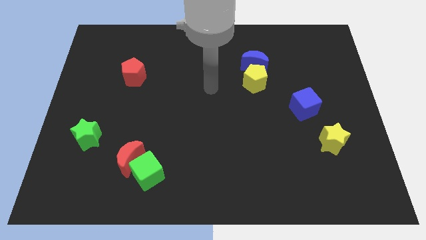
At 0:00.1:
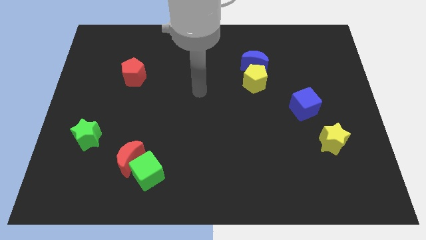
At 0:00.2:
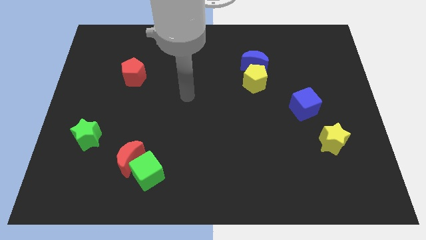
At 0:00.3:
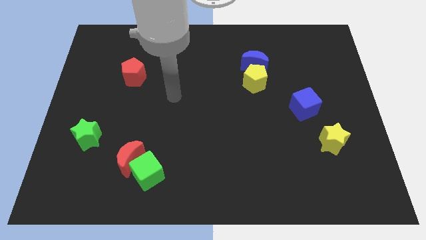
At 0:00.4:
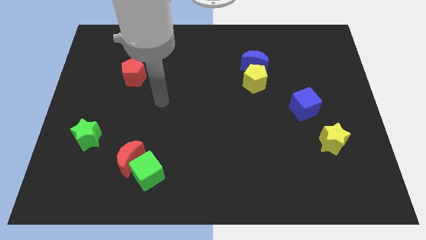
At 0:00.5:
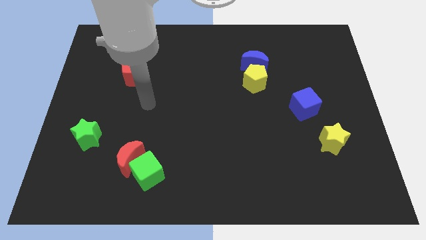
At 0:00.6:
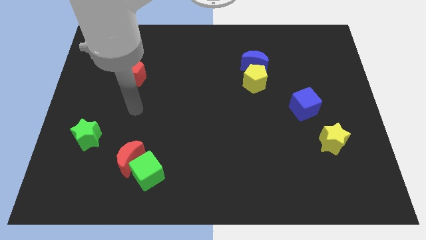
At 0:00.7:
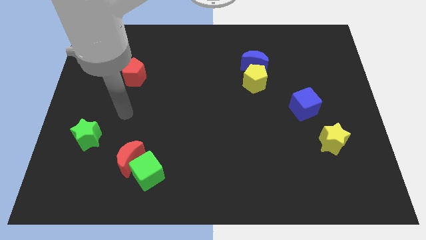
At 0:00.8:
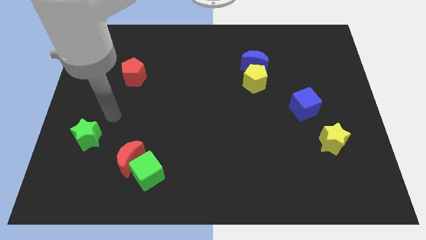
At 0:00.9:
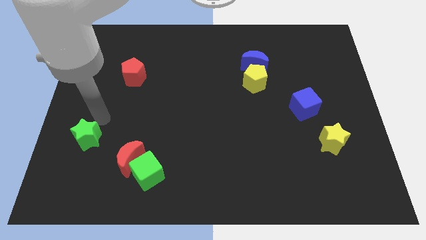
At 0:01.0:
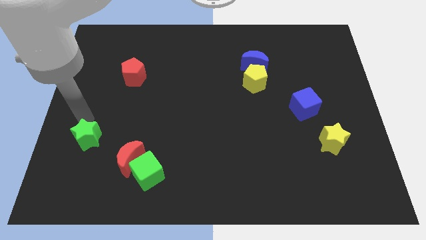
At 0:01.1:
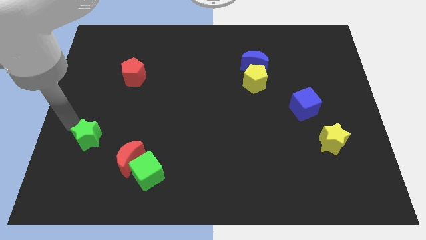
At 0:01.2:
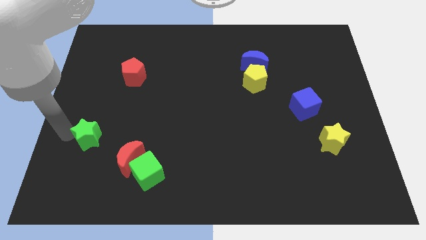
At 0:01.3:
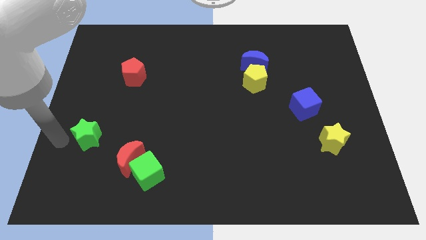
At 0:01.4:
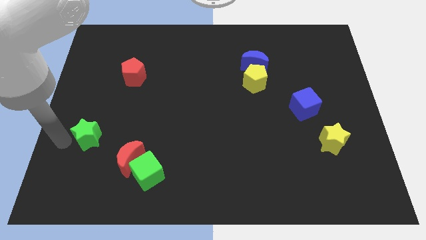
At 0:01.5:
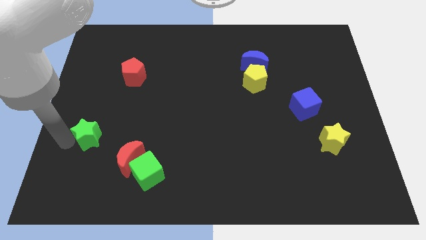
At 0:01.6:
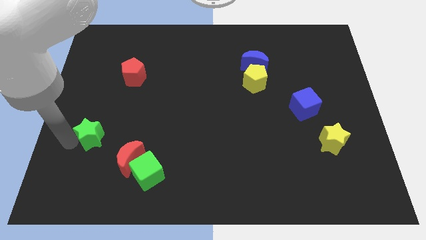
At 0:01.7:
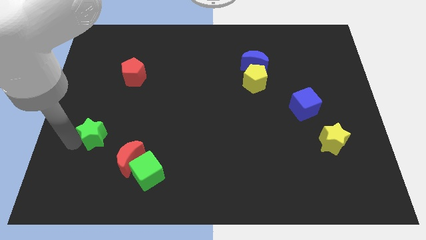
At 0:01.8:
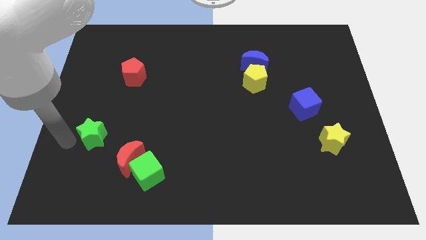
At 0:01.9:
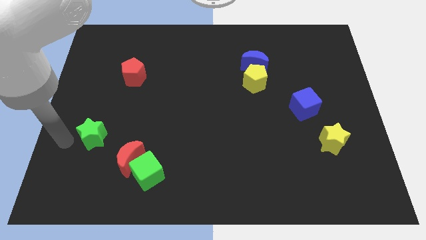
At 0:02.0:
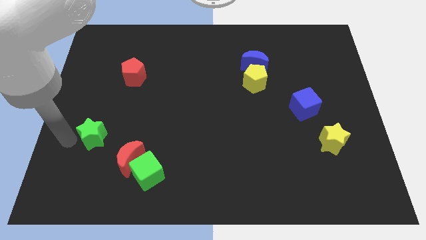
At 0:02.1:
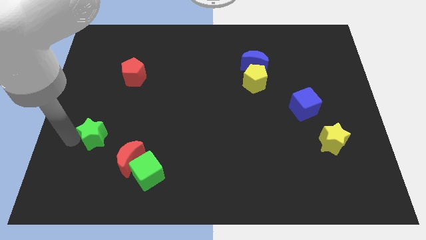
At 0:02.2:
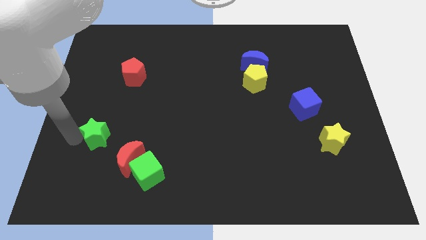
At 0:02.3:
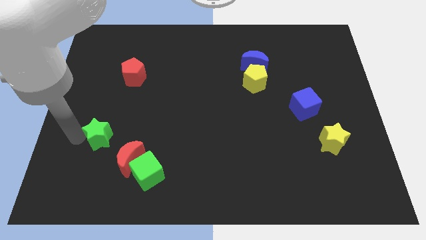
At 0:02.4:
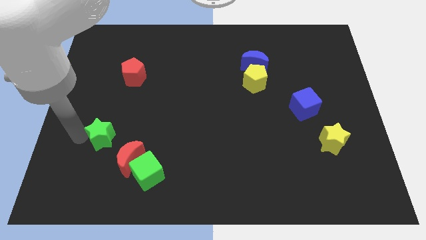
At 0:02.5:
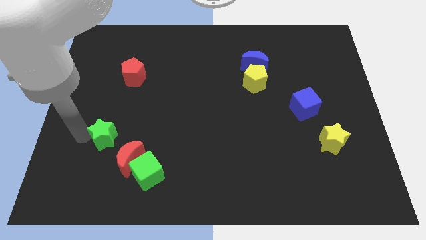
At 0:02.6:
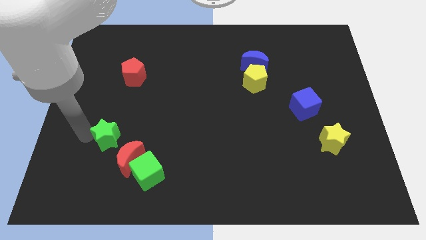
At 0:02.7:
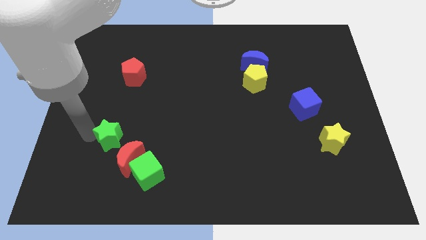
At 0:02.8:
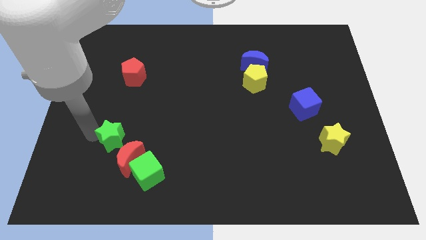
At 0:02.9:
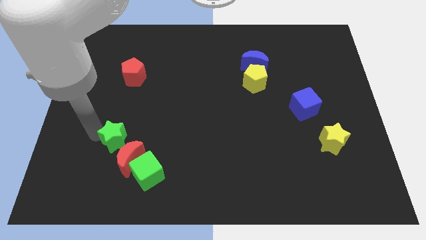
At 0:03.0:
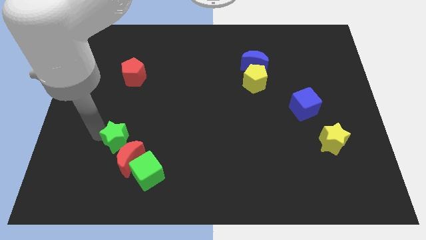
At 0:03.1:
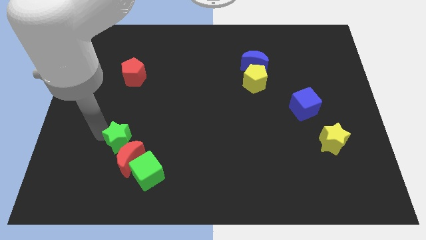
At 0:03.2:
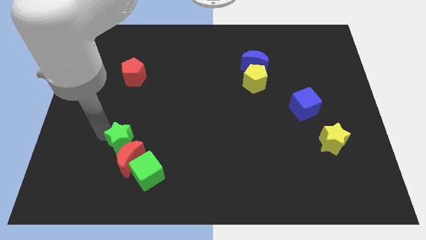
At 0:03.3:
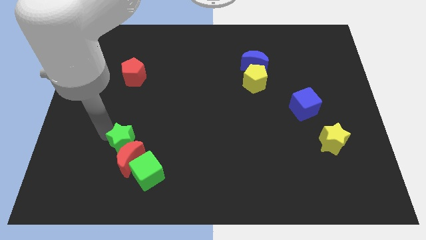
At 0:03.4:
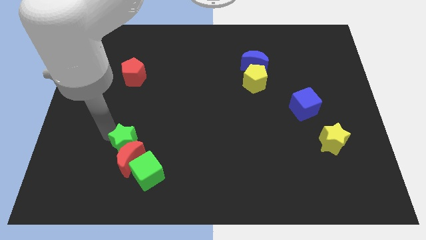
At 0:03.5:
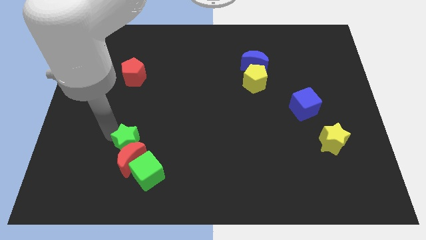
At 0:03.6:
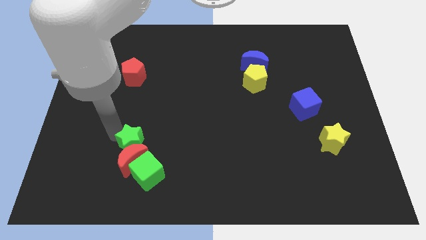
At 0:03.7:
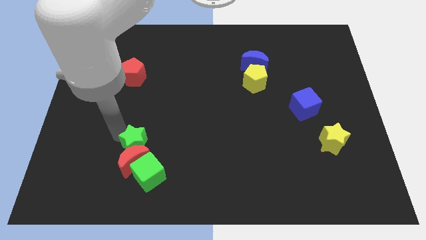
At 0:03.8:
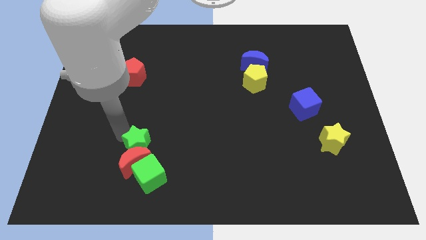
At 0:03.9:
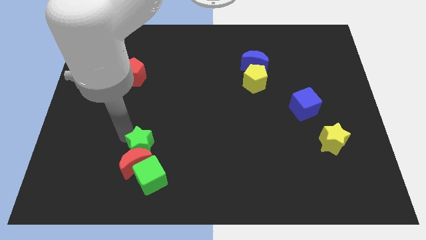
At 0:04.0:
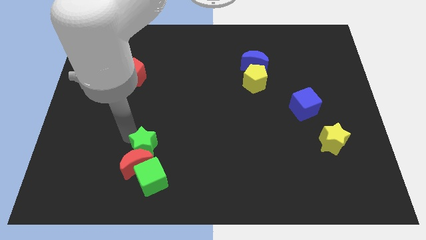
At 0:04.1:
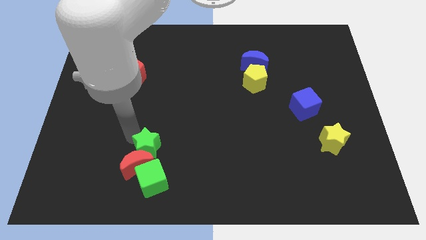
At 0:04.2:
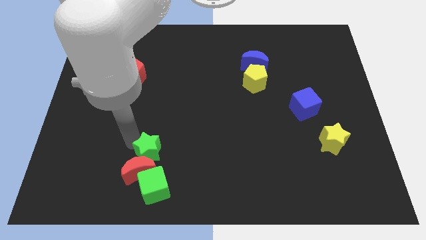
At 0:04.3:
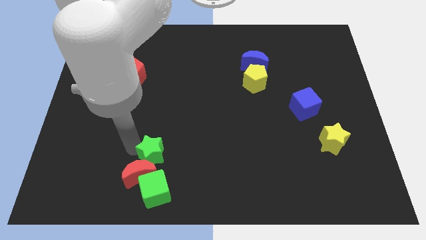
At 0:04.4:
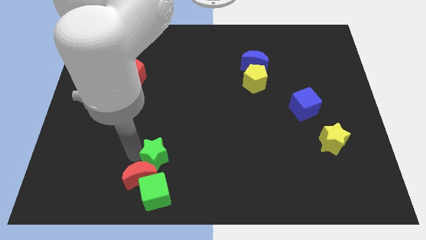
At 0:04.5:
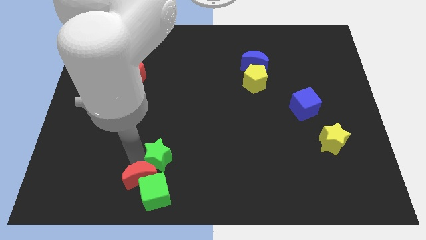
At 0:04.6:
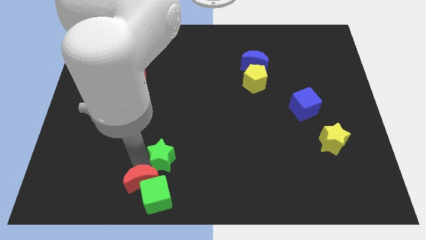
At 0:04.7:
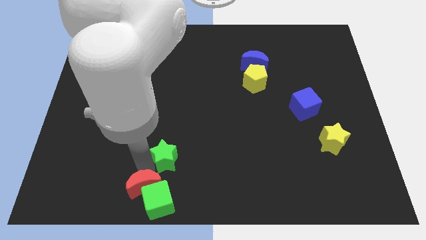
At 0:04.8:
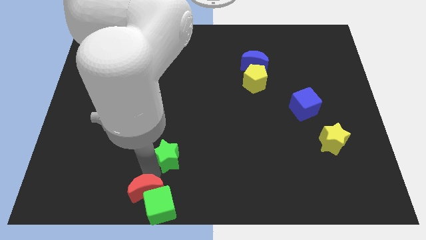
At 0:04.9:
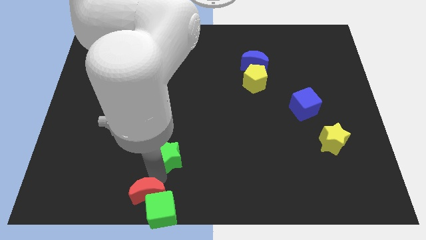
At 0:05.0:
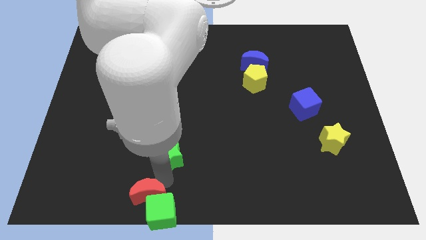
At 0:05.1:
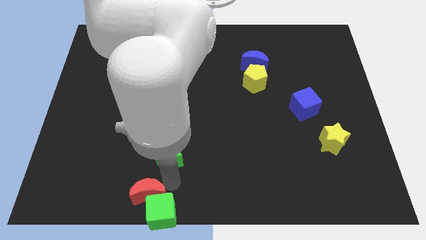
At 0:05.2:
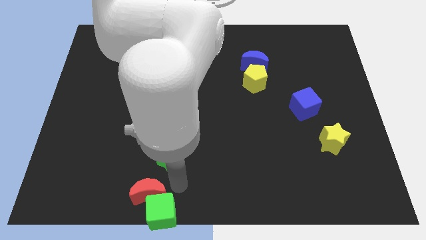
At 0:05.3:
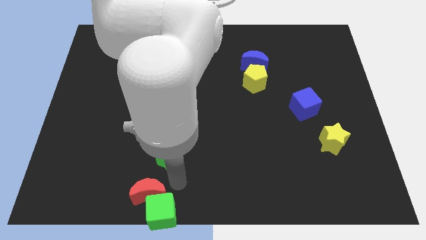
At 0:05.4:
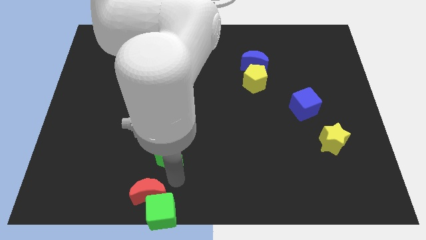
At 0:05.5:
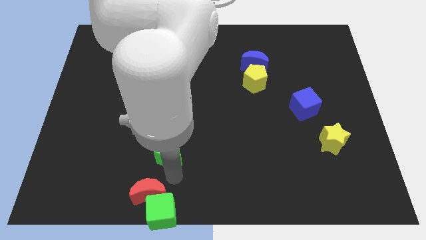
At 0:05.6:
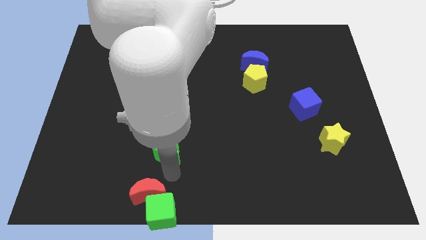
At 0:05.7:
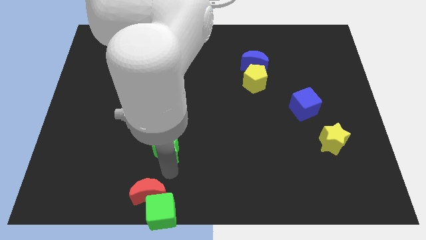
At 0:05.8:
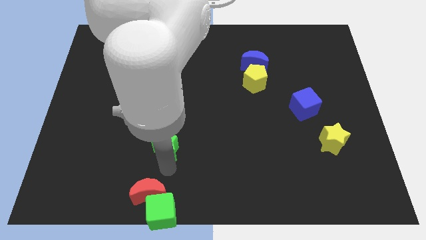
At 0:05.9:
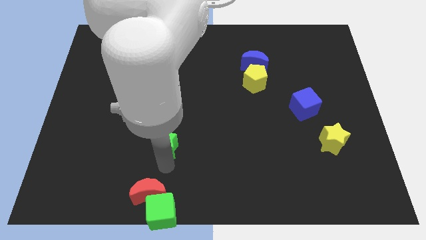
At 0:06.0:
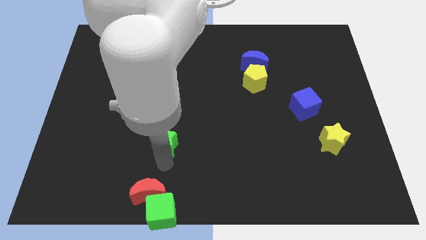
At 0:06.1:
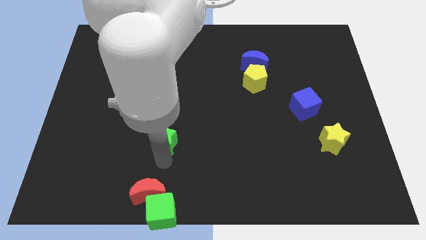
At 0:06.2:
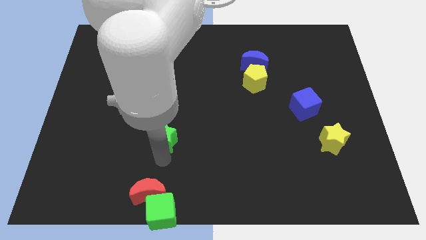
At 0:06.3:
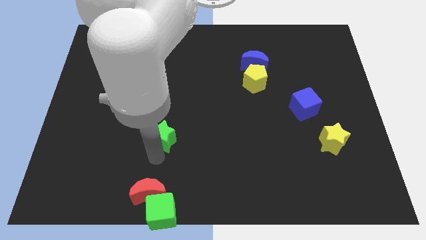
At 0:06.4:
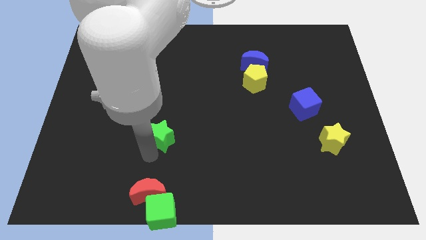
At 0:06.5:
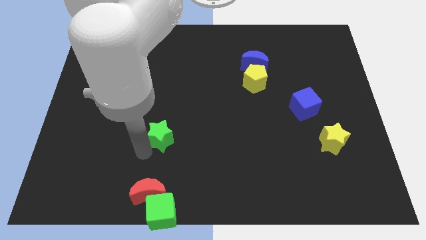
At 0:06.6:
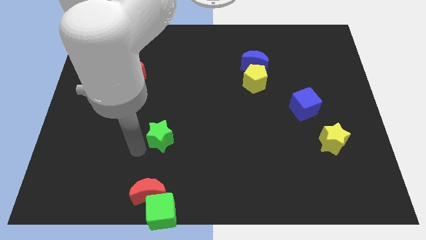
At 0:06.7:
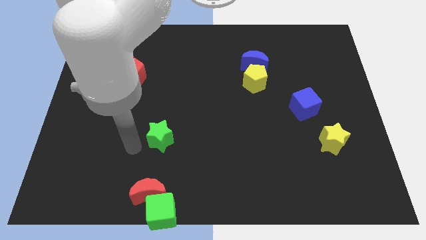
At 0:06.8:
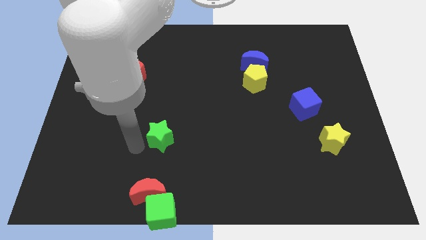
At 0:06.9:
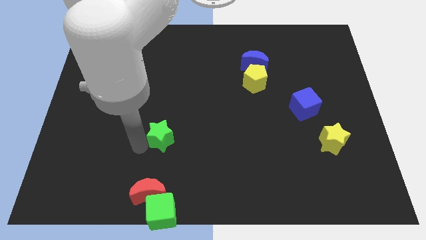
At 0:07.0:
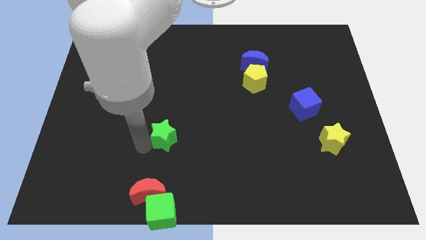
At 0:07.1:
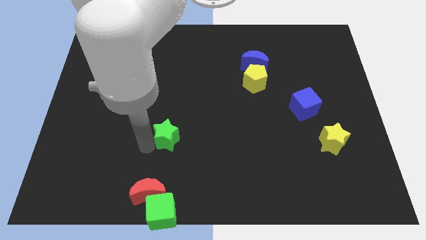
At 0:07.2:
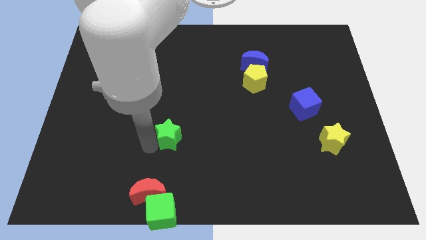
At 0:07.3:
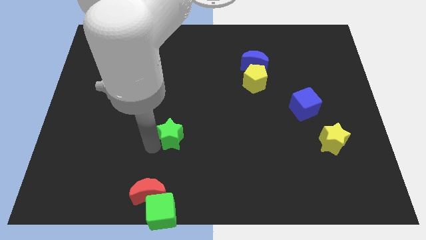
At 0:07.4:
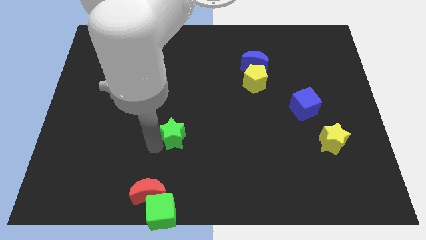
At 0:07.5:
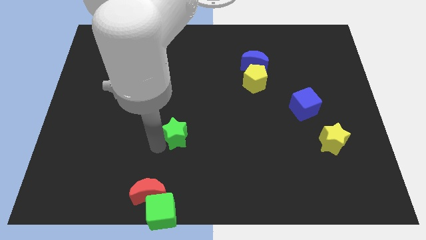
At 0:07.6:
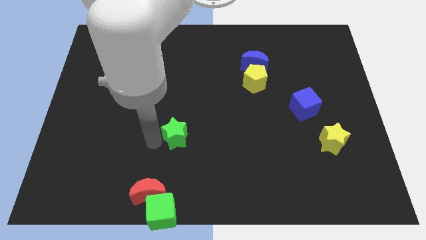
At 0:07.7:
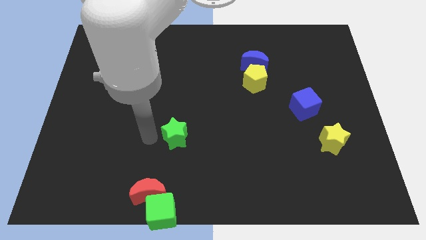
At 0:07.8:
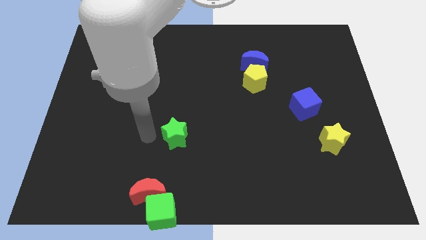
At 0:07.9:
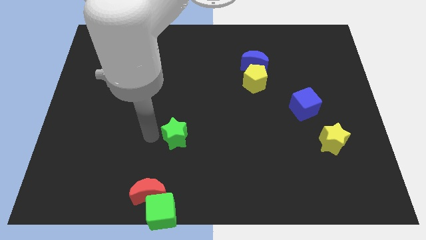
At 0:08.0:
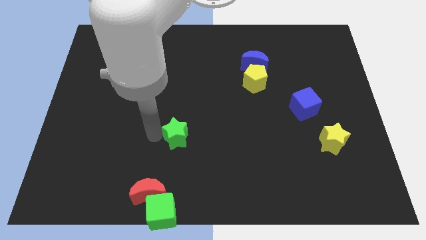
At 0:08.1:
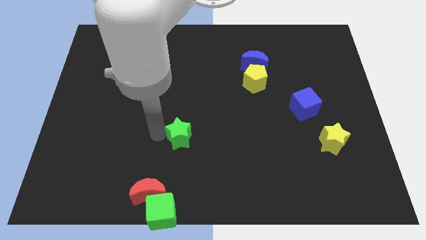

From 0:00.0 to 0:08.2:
push the green star to the right
